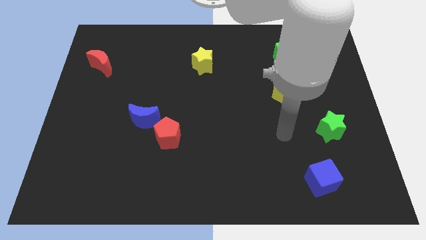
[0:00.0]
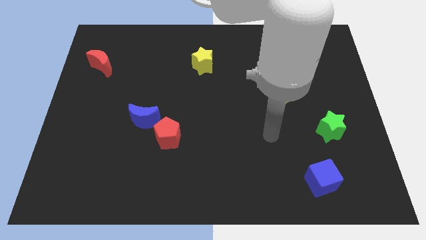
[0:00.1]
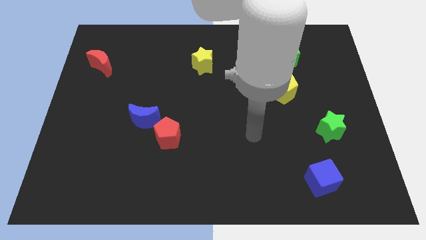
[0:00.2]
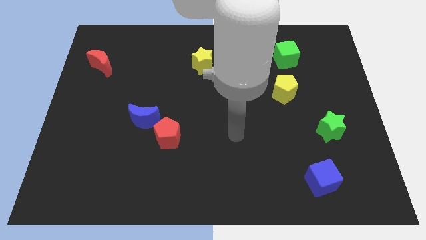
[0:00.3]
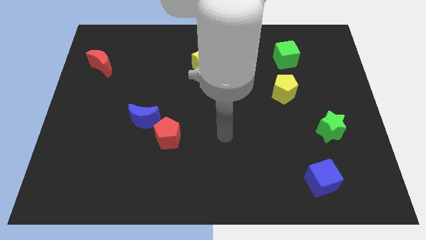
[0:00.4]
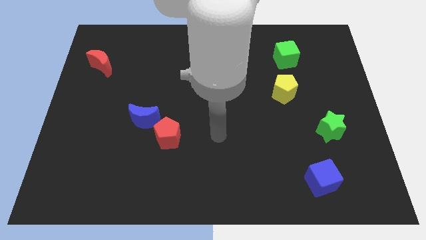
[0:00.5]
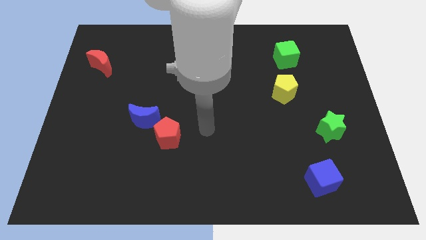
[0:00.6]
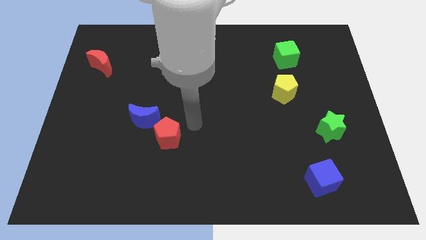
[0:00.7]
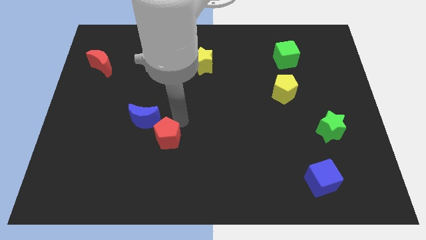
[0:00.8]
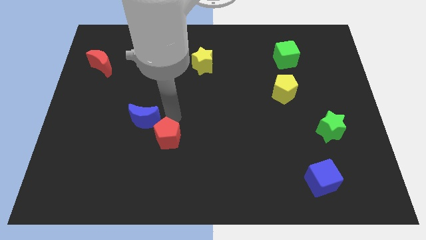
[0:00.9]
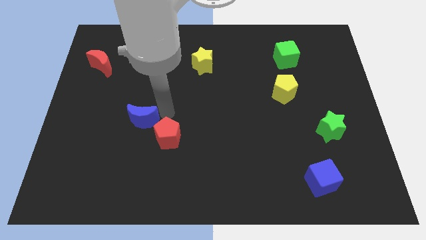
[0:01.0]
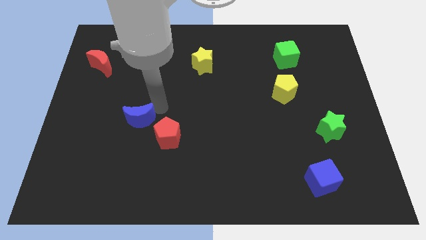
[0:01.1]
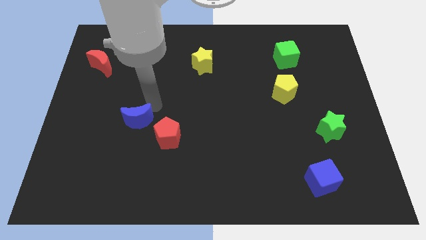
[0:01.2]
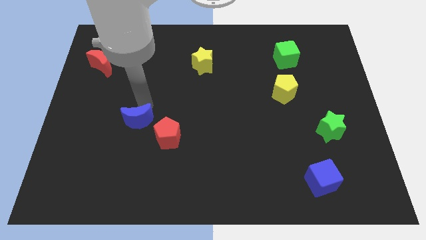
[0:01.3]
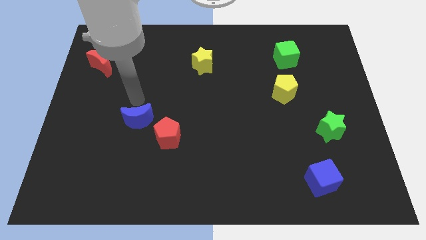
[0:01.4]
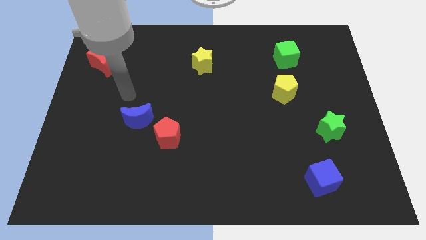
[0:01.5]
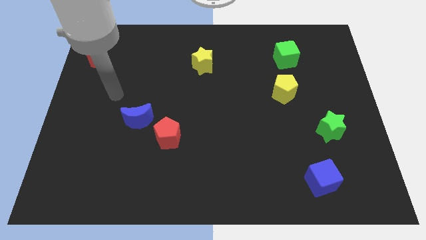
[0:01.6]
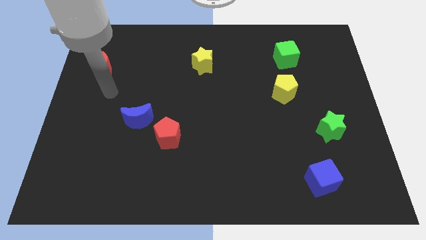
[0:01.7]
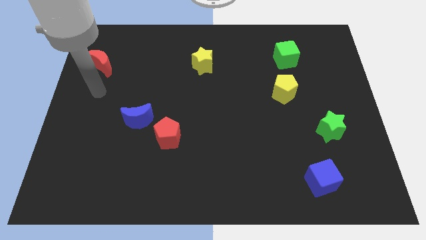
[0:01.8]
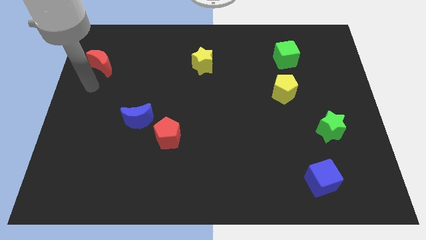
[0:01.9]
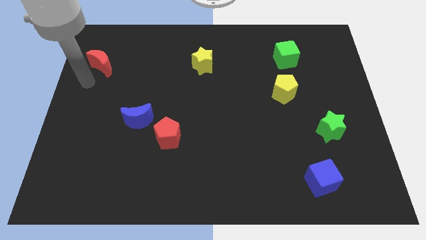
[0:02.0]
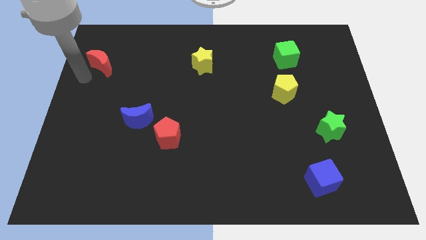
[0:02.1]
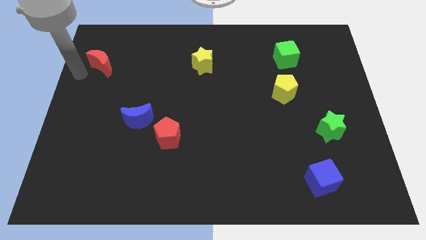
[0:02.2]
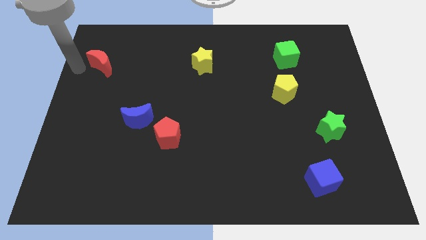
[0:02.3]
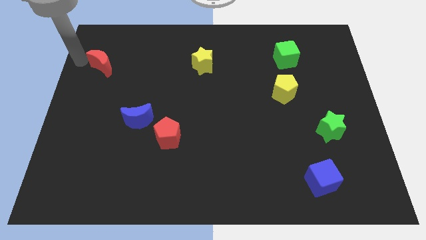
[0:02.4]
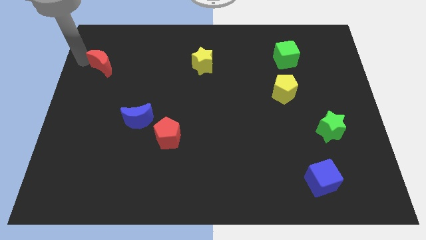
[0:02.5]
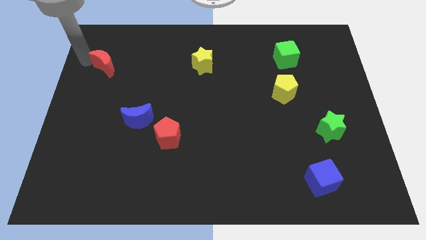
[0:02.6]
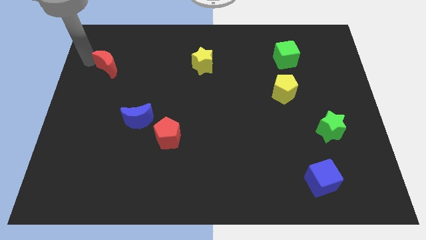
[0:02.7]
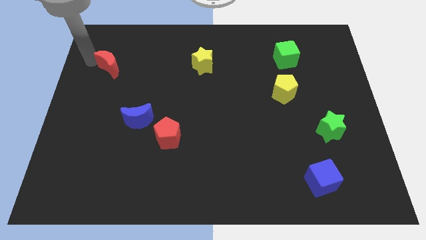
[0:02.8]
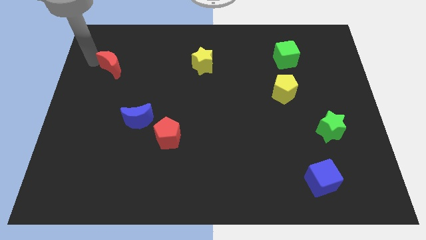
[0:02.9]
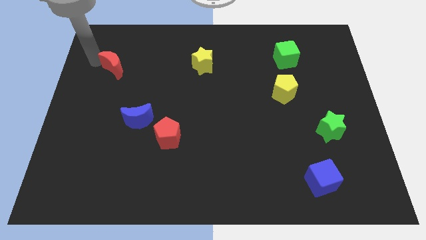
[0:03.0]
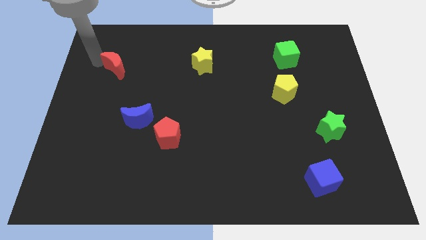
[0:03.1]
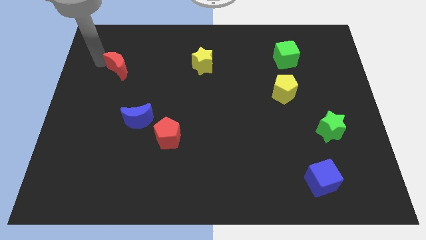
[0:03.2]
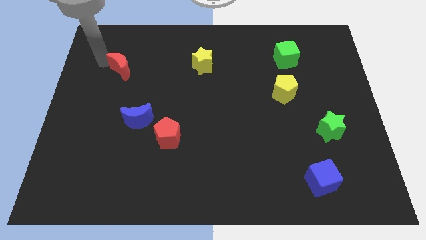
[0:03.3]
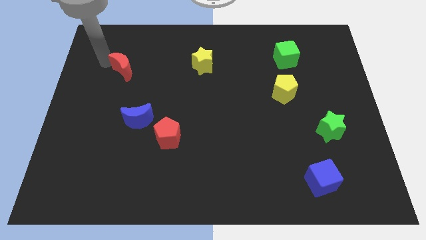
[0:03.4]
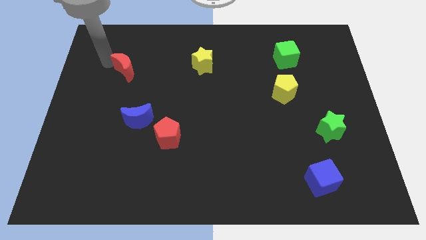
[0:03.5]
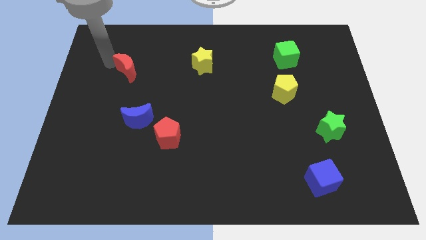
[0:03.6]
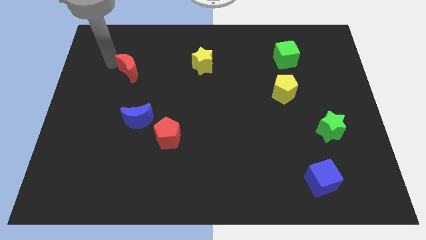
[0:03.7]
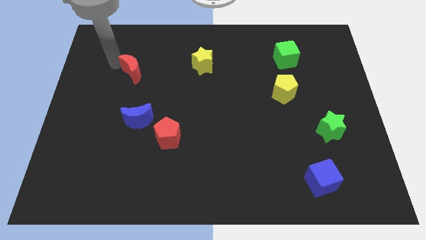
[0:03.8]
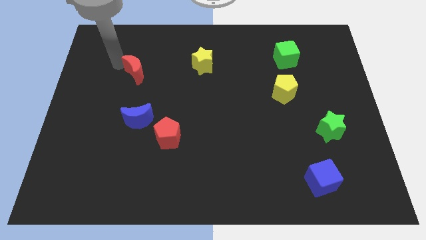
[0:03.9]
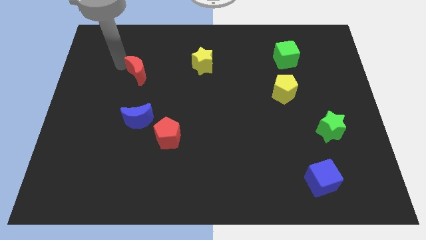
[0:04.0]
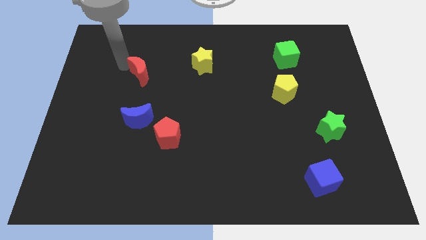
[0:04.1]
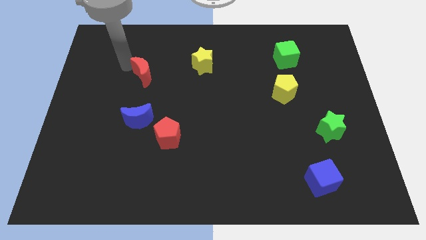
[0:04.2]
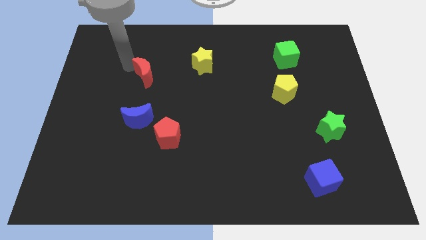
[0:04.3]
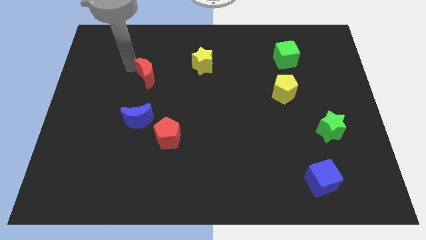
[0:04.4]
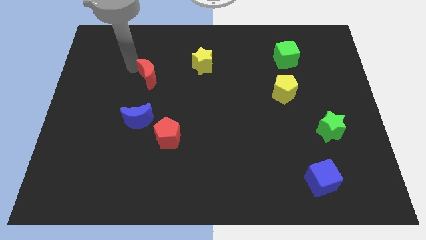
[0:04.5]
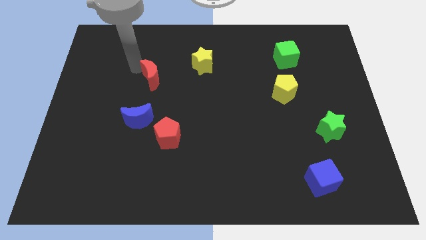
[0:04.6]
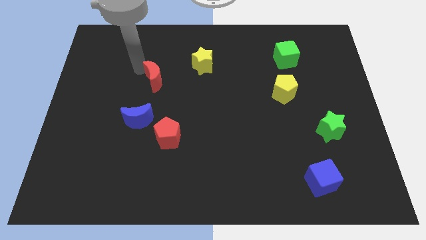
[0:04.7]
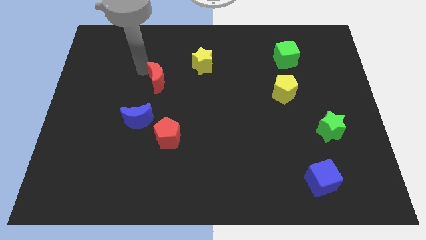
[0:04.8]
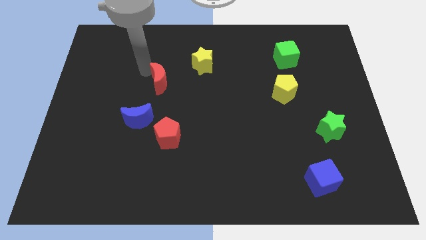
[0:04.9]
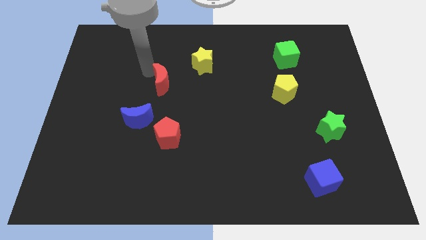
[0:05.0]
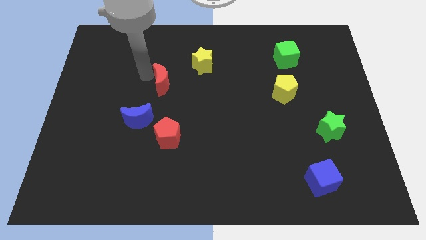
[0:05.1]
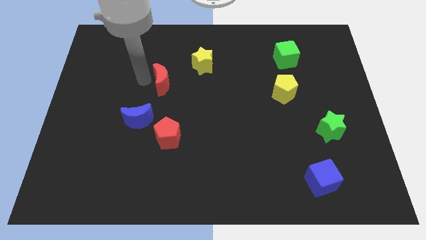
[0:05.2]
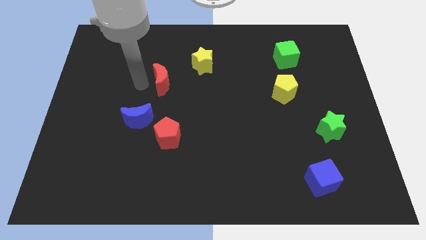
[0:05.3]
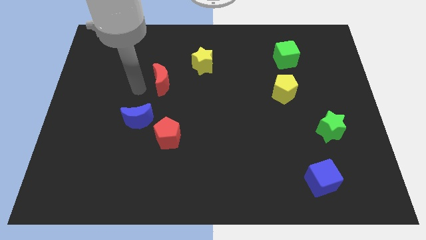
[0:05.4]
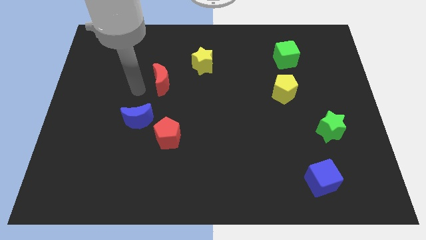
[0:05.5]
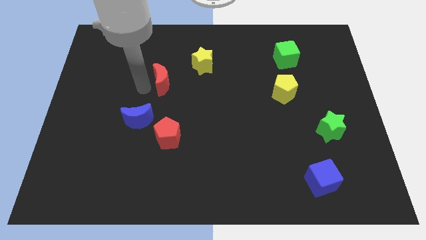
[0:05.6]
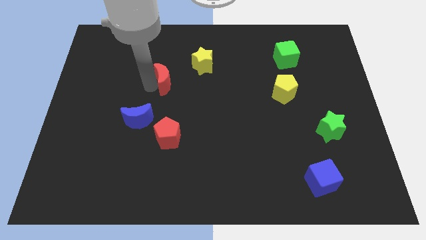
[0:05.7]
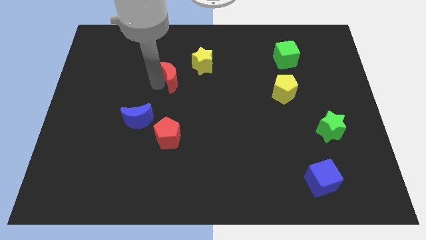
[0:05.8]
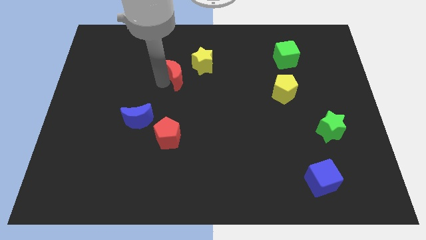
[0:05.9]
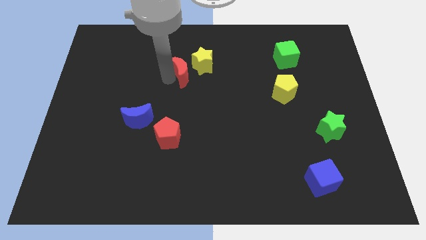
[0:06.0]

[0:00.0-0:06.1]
slide the red moon right

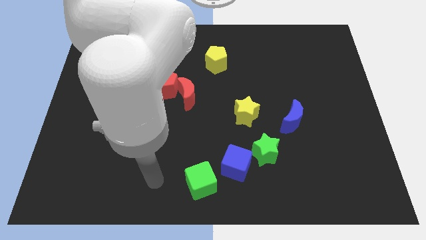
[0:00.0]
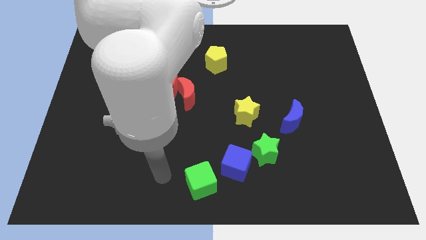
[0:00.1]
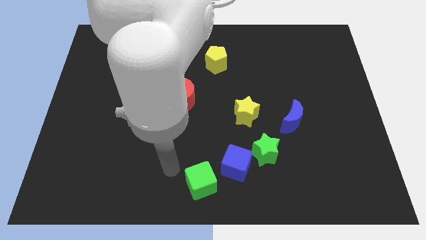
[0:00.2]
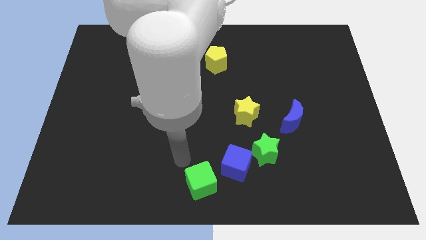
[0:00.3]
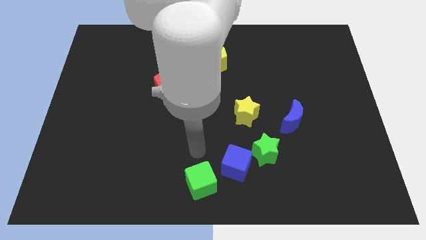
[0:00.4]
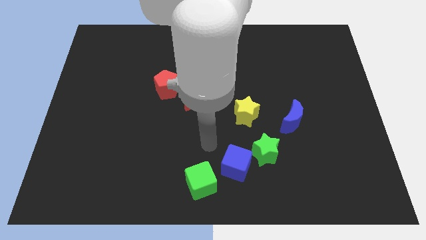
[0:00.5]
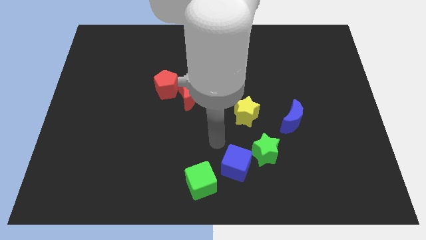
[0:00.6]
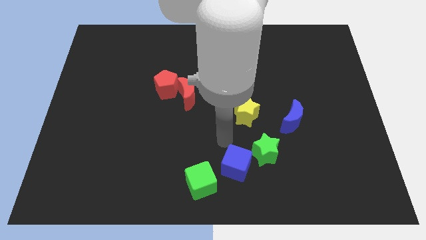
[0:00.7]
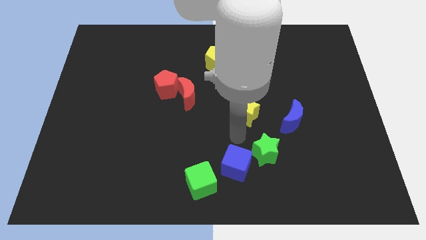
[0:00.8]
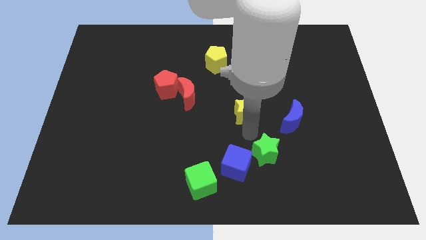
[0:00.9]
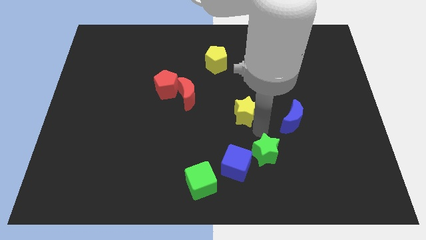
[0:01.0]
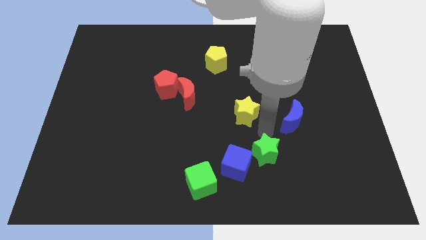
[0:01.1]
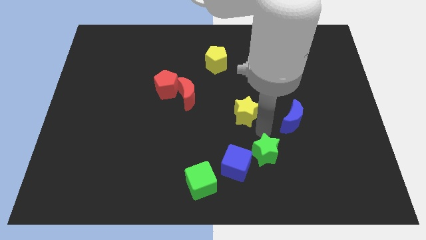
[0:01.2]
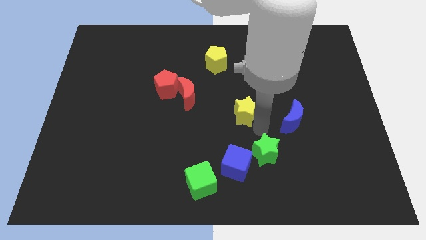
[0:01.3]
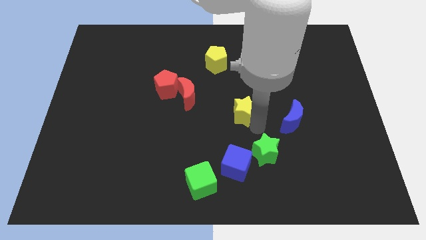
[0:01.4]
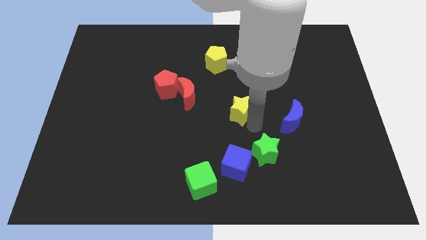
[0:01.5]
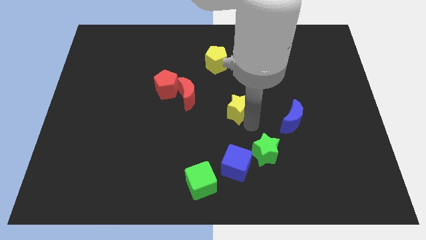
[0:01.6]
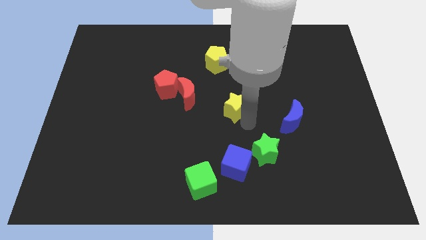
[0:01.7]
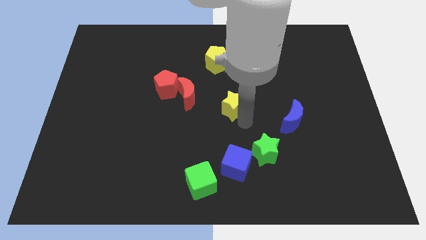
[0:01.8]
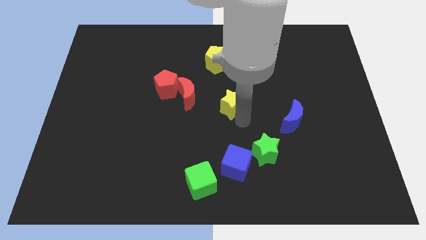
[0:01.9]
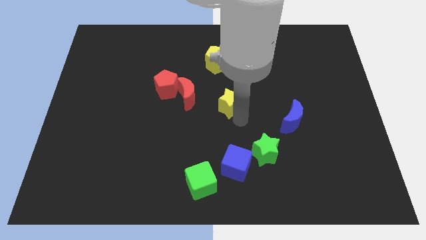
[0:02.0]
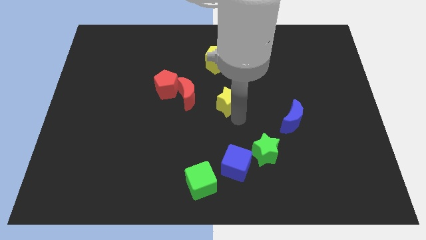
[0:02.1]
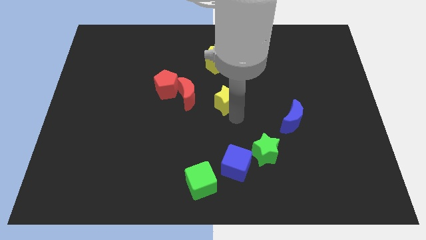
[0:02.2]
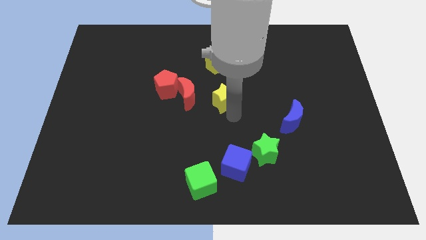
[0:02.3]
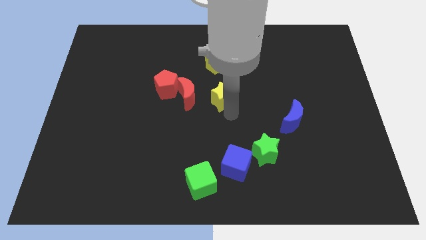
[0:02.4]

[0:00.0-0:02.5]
slightly slide the yellow star diagonally up and to the left
